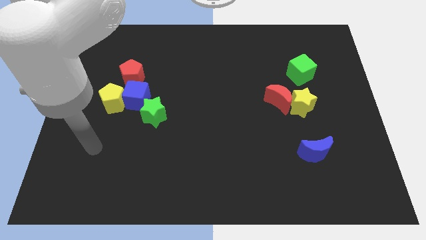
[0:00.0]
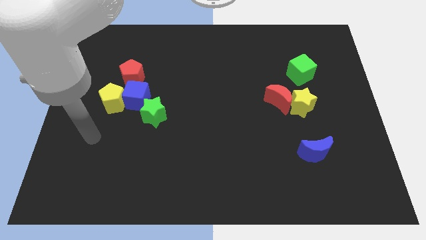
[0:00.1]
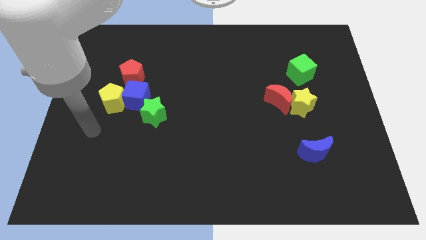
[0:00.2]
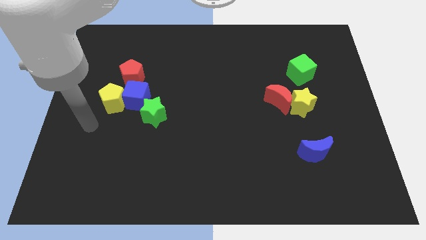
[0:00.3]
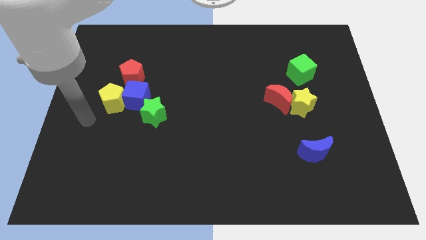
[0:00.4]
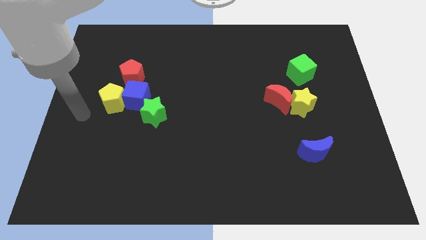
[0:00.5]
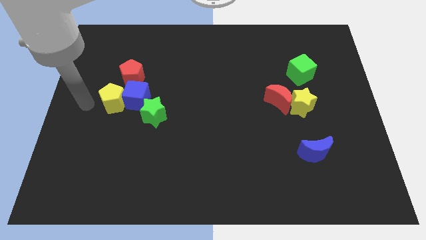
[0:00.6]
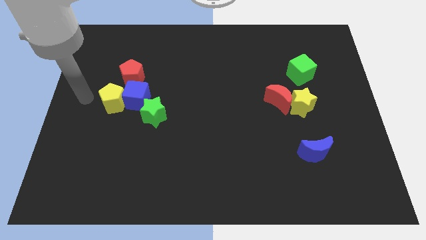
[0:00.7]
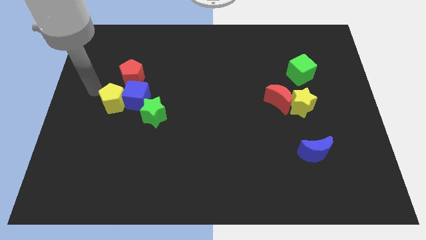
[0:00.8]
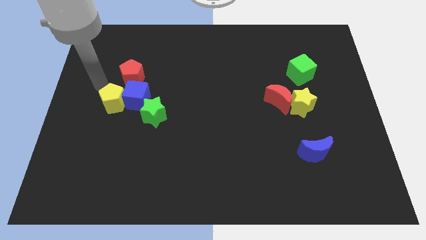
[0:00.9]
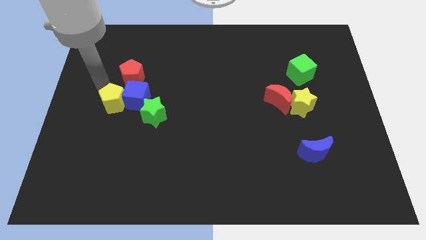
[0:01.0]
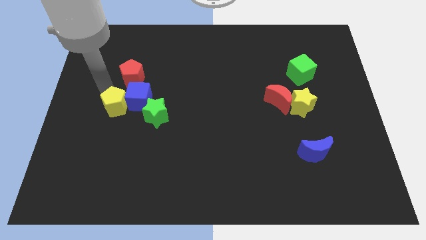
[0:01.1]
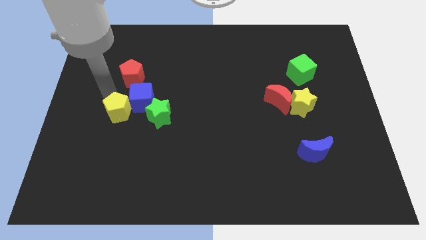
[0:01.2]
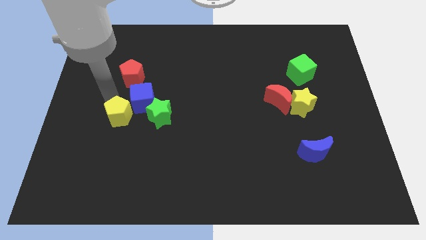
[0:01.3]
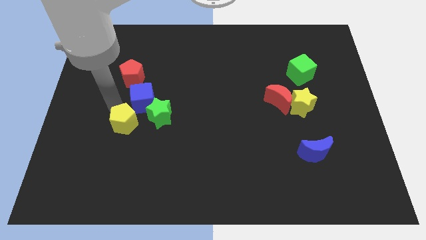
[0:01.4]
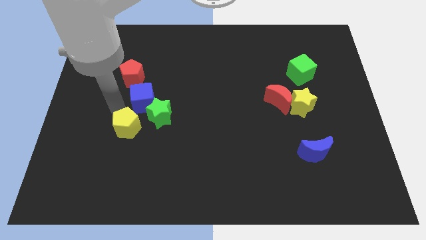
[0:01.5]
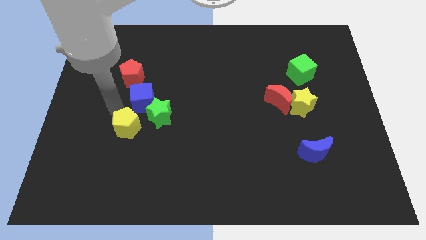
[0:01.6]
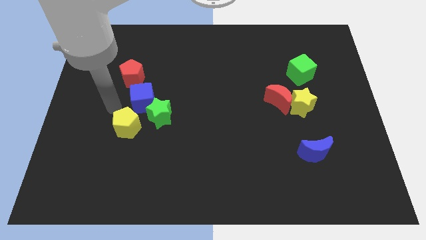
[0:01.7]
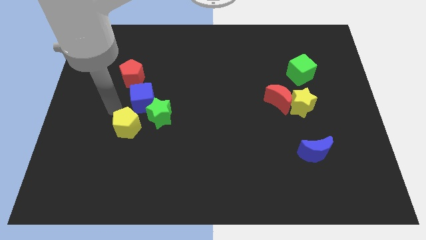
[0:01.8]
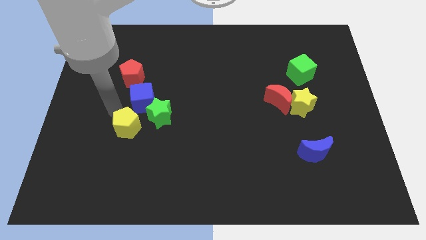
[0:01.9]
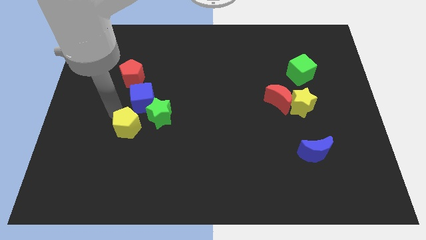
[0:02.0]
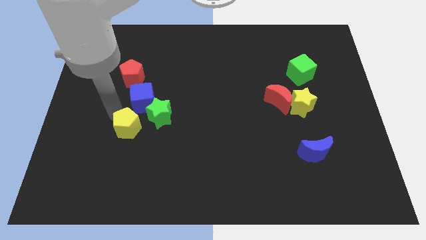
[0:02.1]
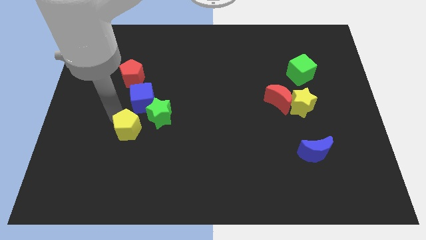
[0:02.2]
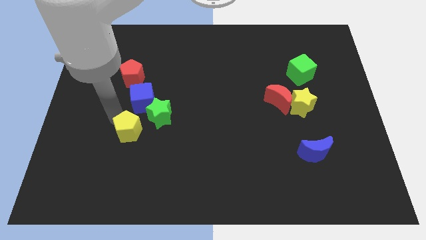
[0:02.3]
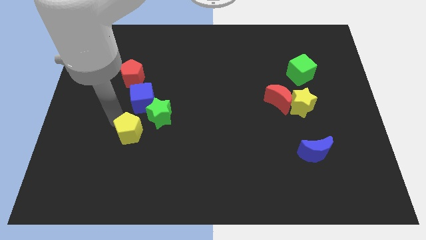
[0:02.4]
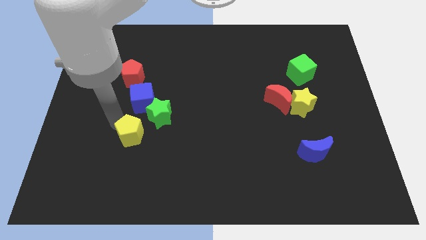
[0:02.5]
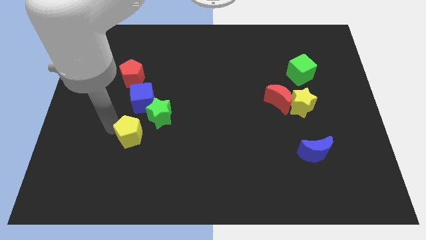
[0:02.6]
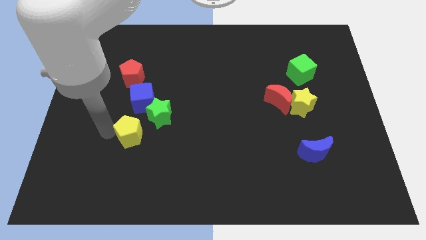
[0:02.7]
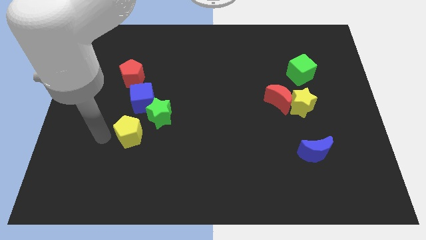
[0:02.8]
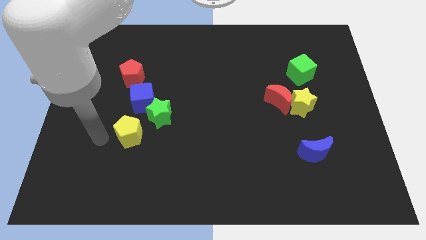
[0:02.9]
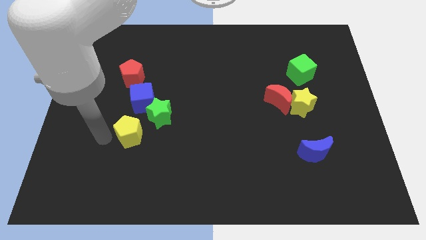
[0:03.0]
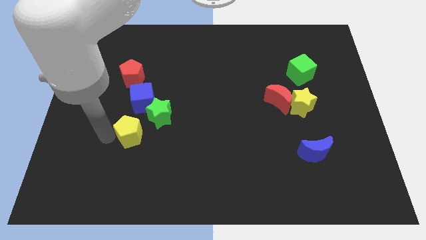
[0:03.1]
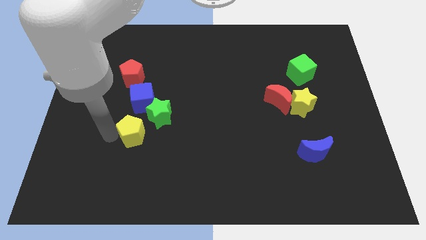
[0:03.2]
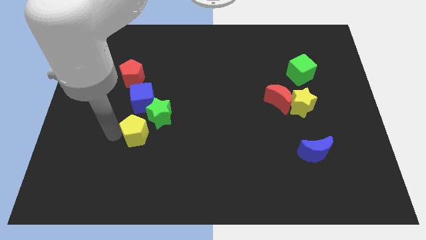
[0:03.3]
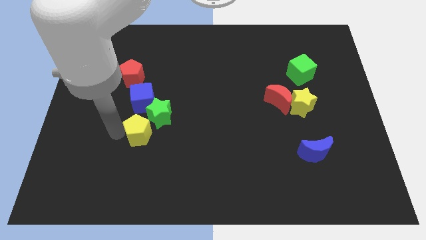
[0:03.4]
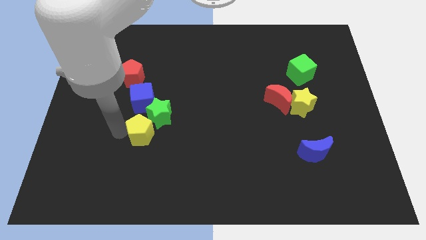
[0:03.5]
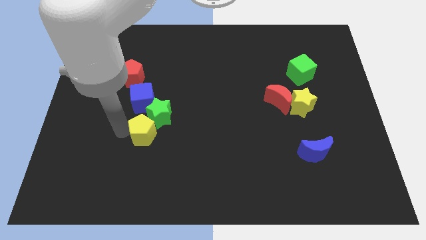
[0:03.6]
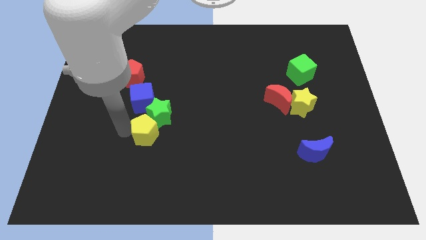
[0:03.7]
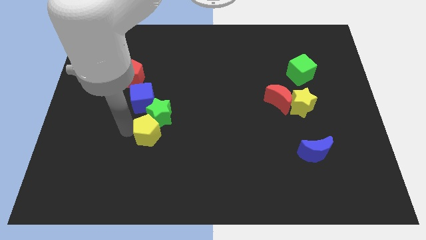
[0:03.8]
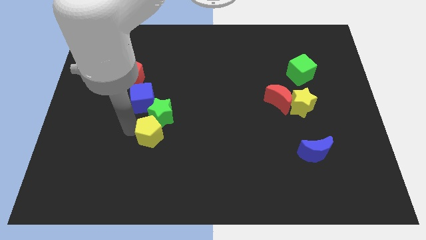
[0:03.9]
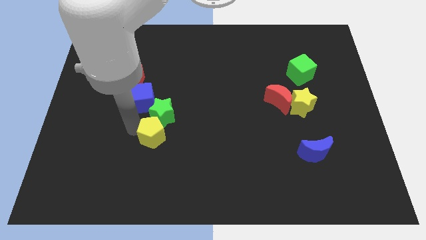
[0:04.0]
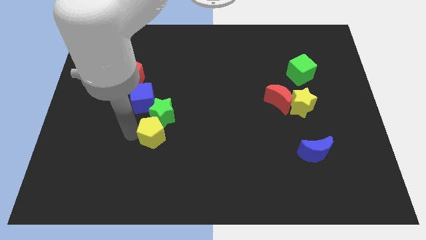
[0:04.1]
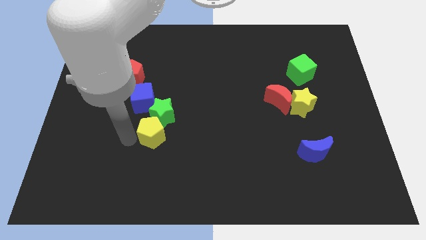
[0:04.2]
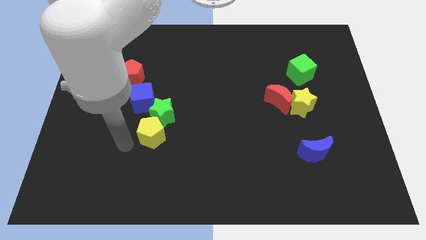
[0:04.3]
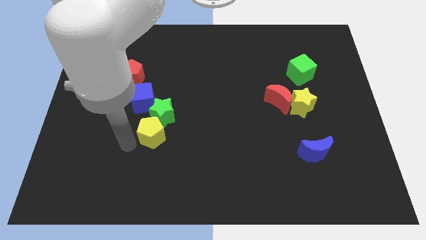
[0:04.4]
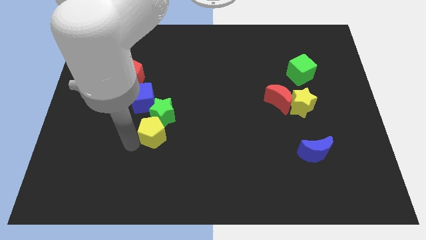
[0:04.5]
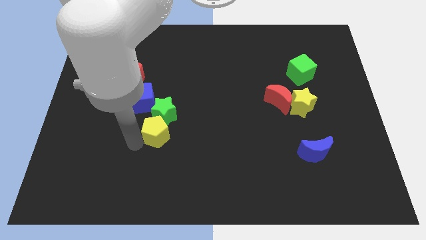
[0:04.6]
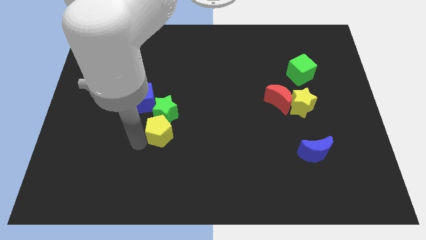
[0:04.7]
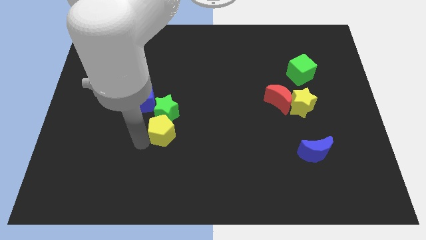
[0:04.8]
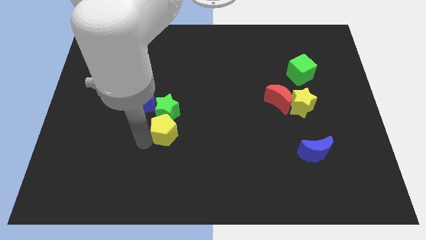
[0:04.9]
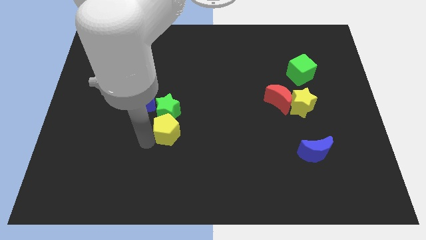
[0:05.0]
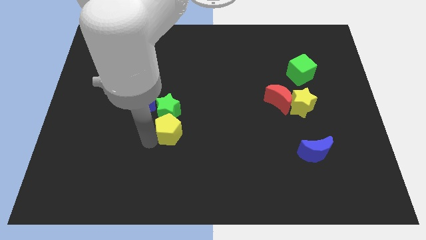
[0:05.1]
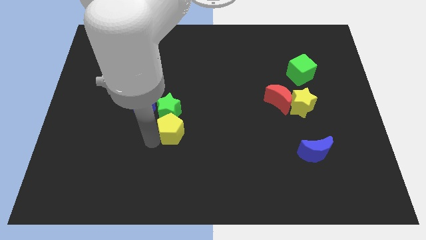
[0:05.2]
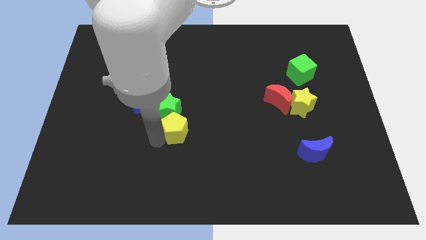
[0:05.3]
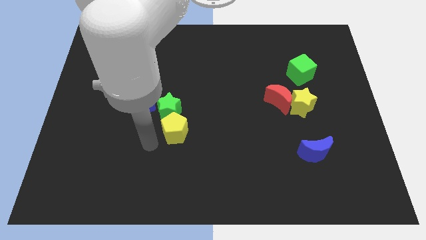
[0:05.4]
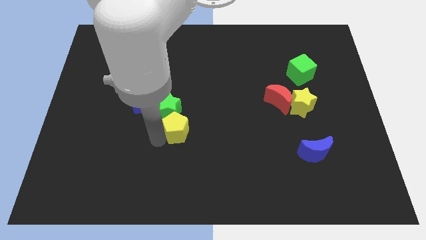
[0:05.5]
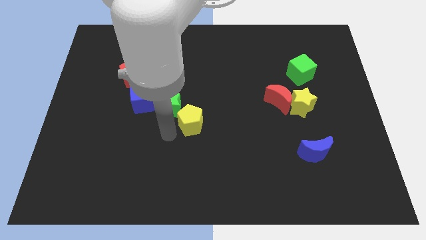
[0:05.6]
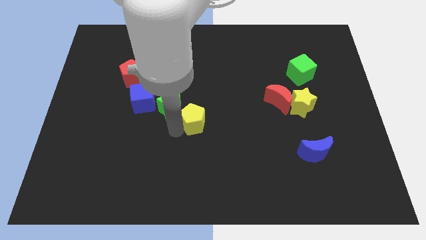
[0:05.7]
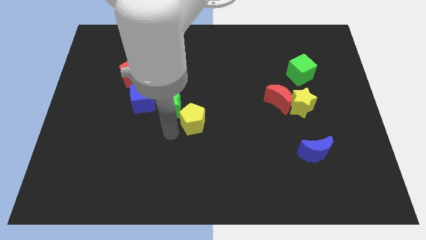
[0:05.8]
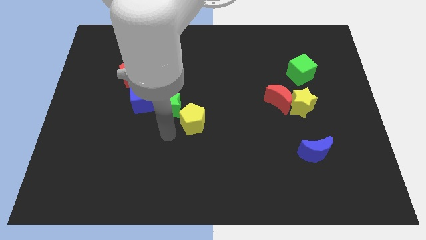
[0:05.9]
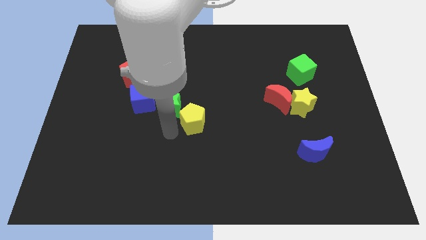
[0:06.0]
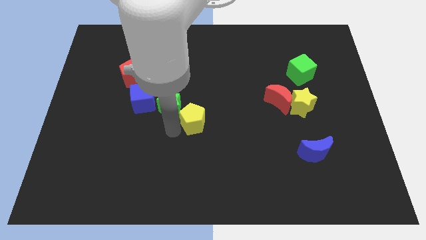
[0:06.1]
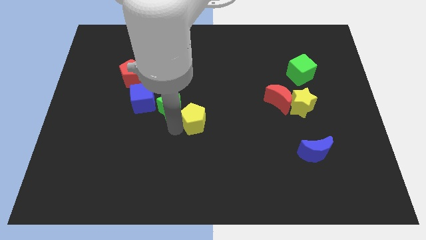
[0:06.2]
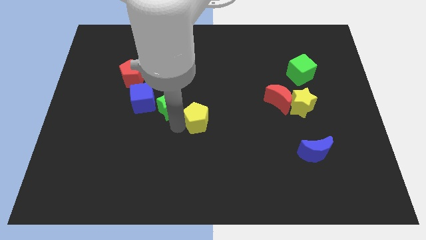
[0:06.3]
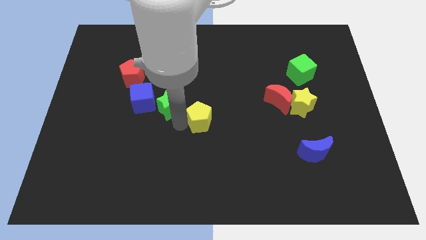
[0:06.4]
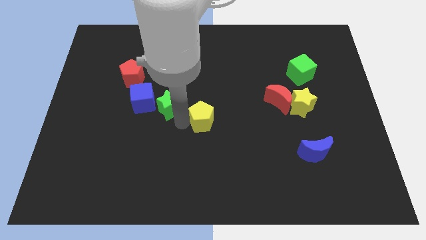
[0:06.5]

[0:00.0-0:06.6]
push the yellow pentagon right

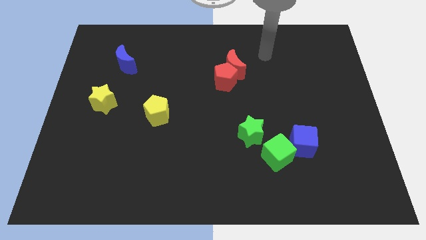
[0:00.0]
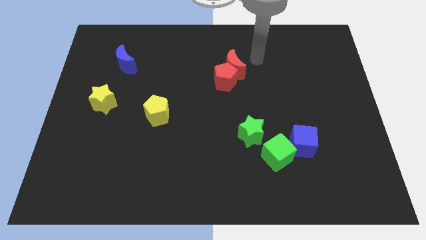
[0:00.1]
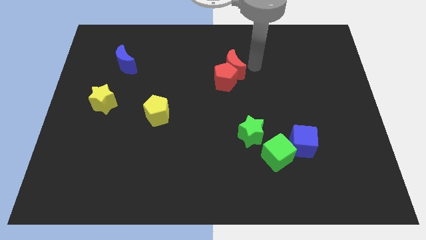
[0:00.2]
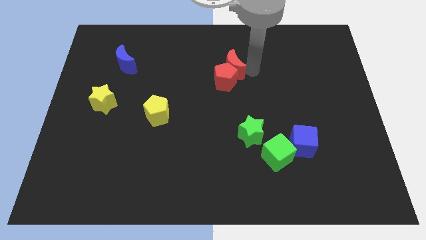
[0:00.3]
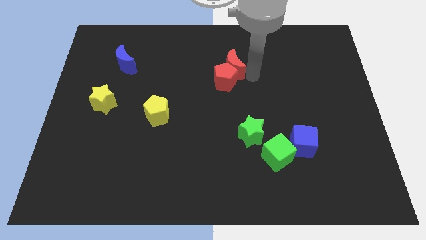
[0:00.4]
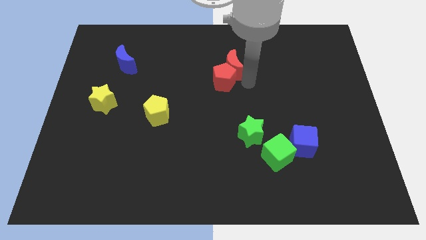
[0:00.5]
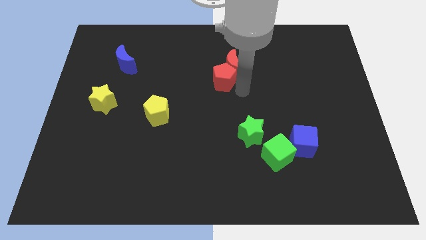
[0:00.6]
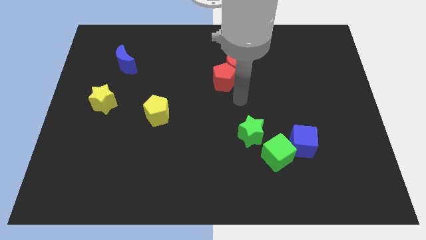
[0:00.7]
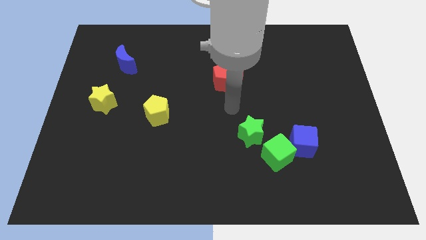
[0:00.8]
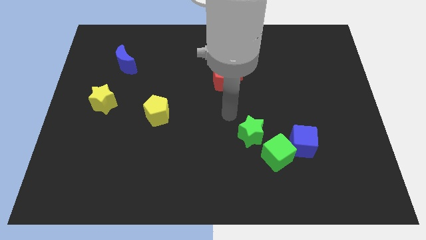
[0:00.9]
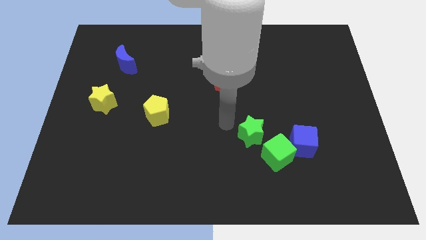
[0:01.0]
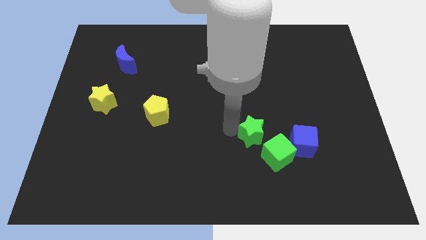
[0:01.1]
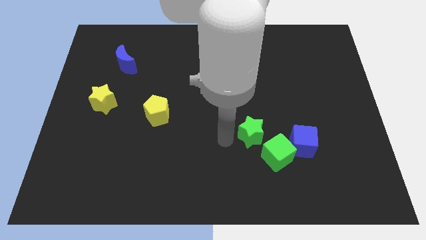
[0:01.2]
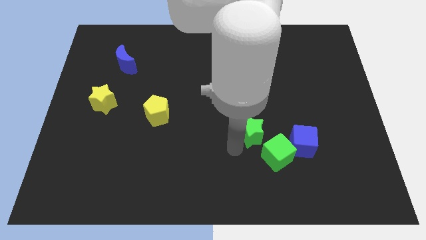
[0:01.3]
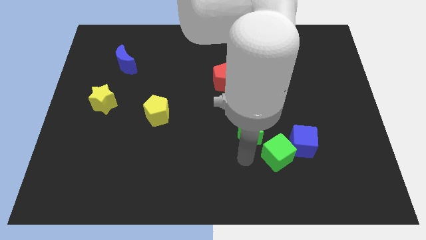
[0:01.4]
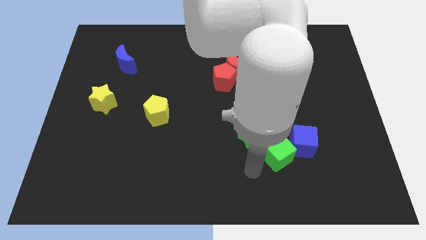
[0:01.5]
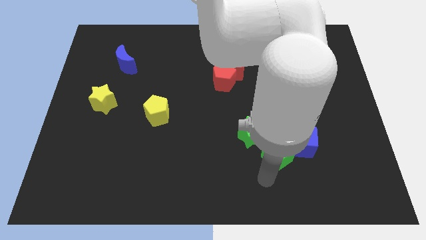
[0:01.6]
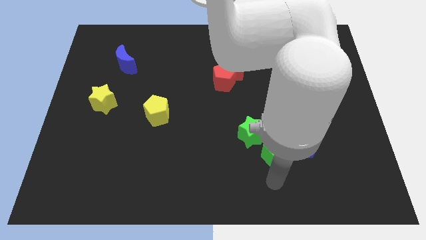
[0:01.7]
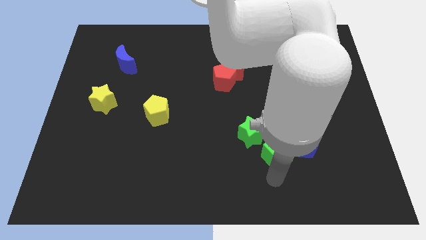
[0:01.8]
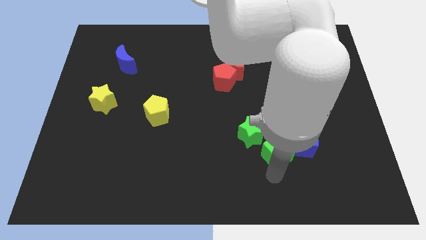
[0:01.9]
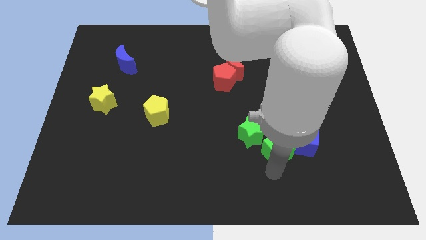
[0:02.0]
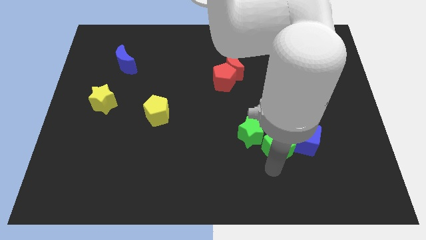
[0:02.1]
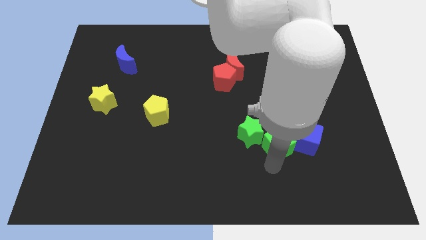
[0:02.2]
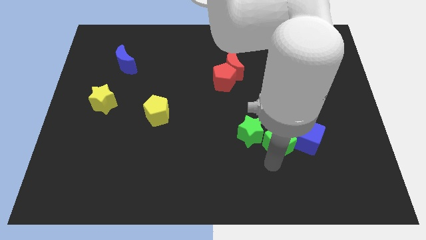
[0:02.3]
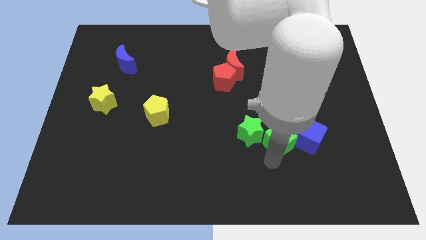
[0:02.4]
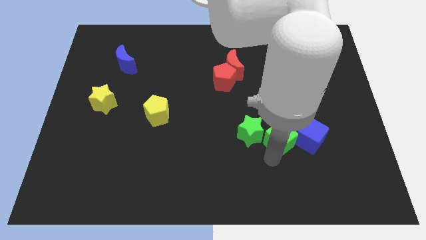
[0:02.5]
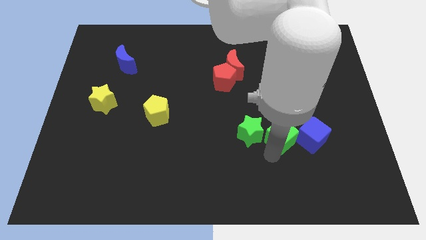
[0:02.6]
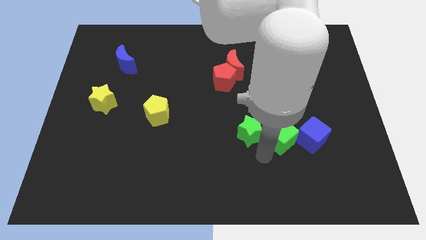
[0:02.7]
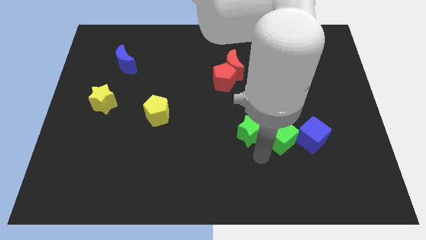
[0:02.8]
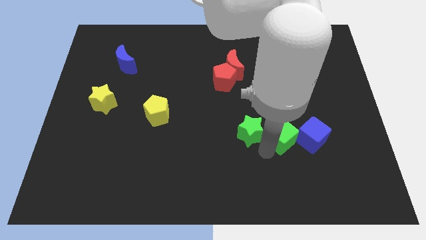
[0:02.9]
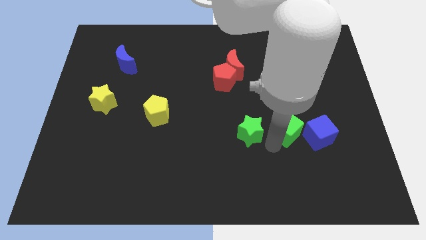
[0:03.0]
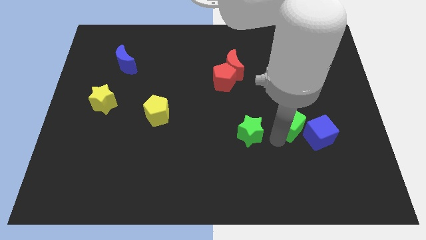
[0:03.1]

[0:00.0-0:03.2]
slide the green cube upwards and then to the right a bit
